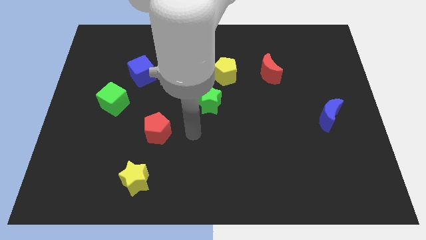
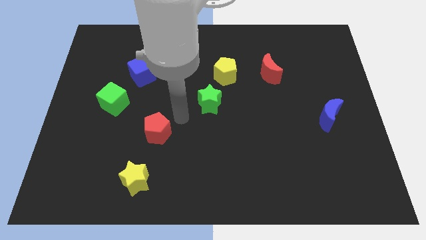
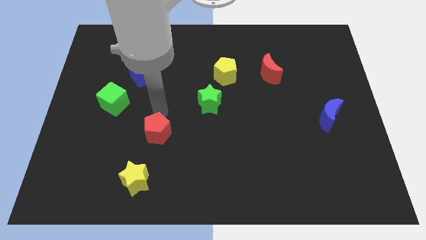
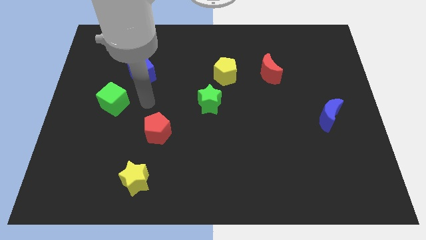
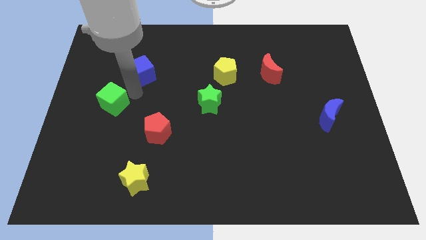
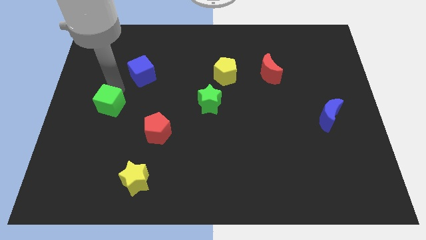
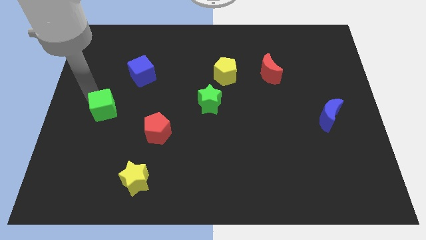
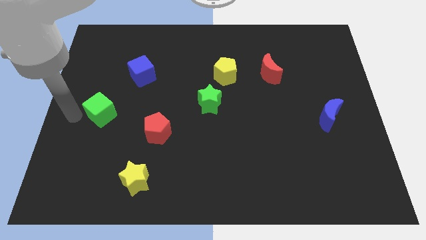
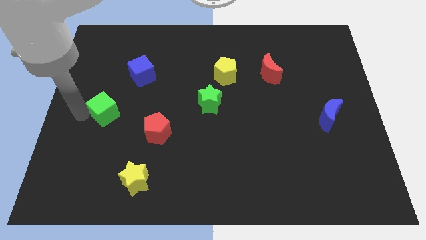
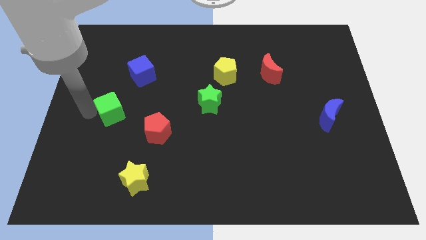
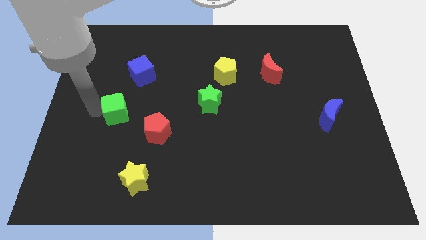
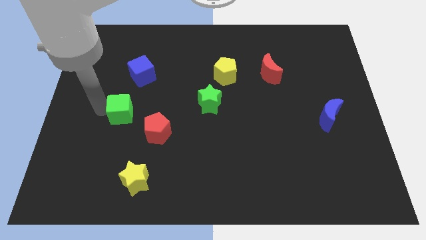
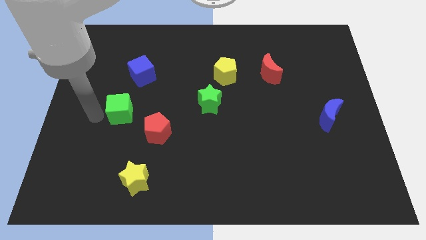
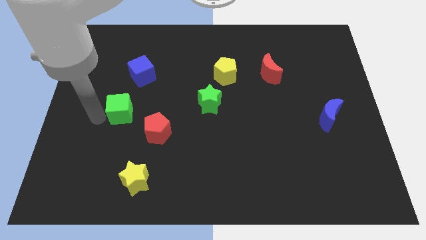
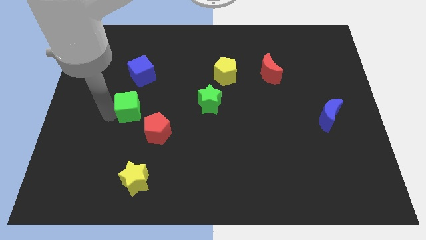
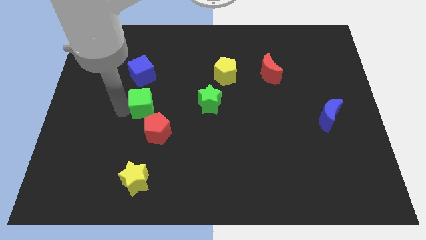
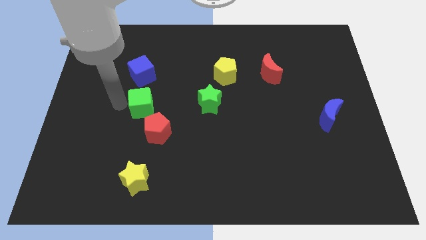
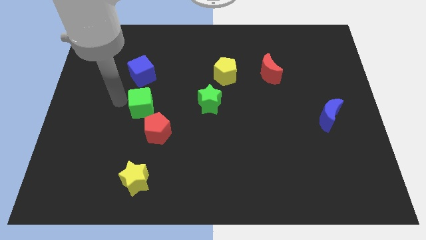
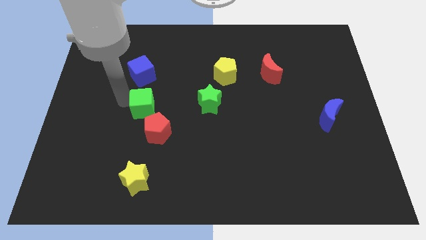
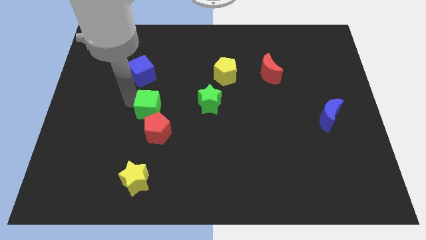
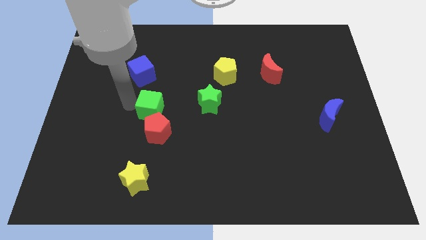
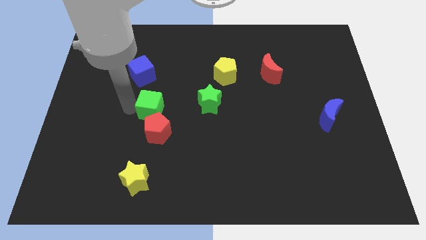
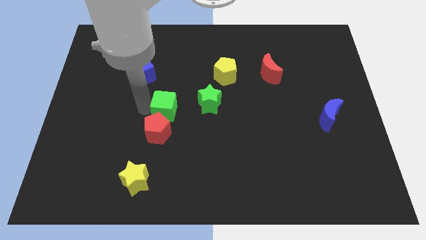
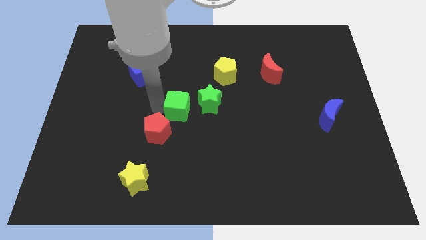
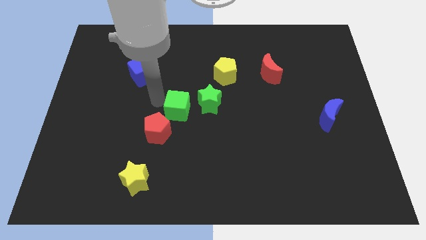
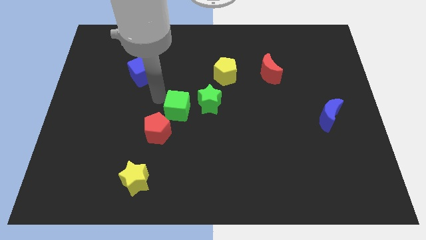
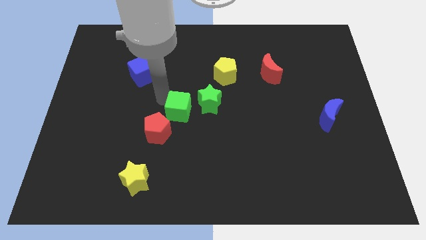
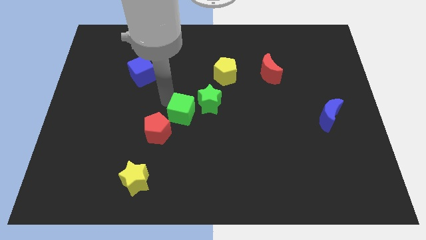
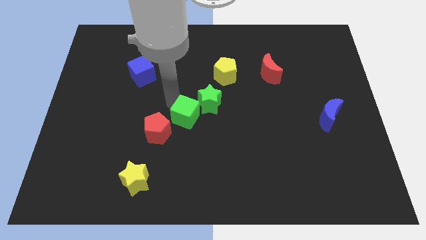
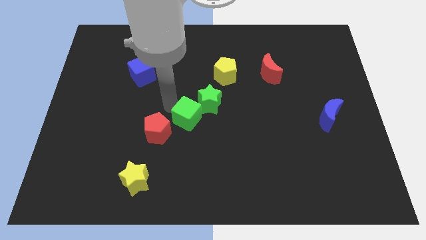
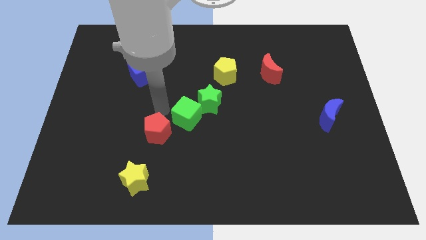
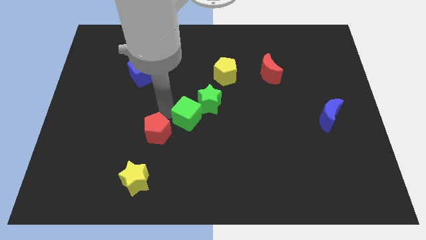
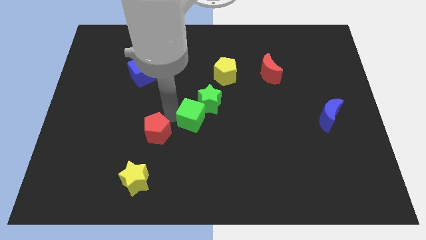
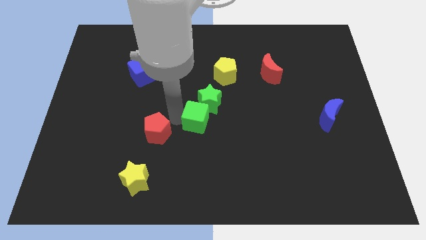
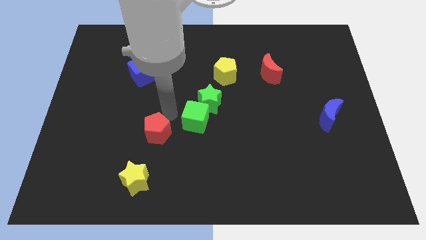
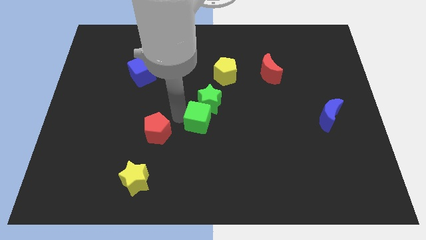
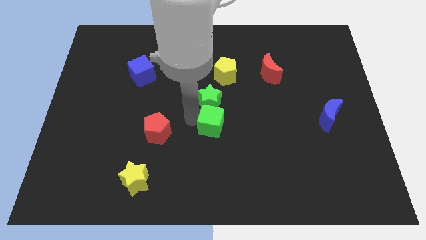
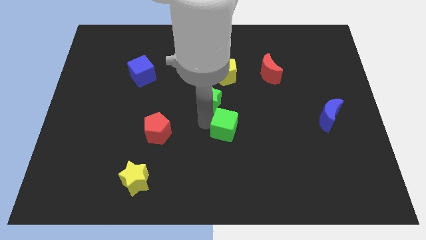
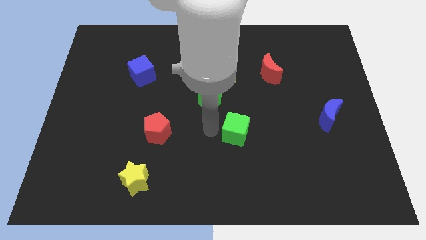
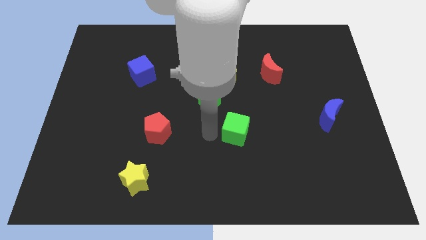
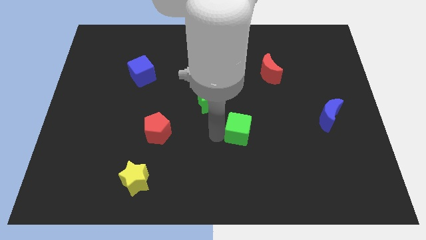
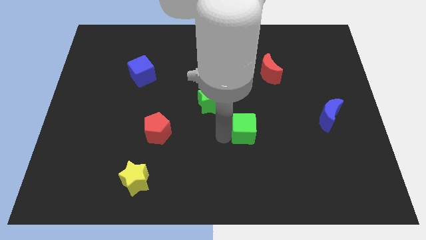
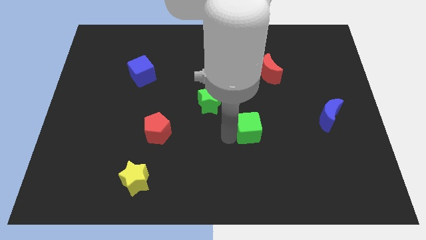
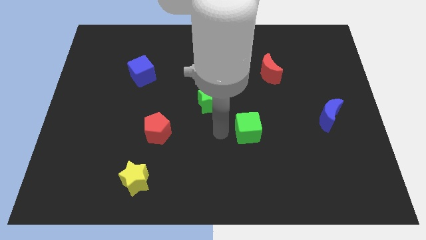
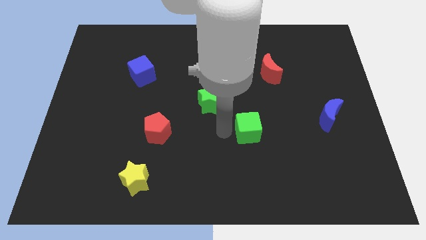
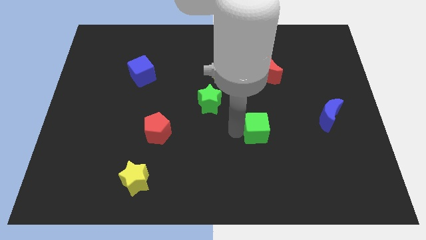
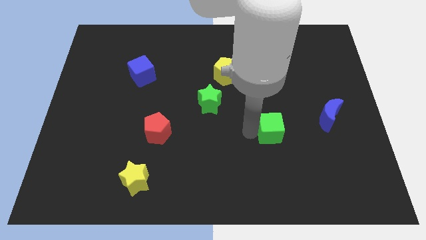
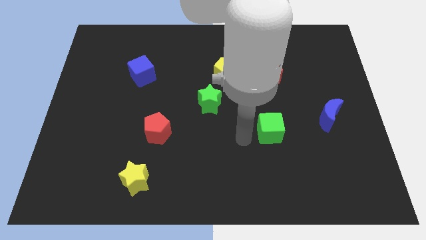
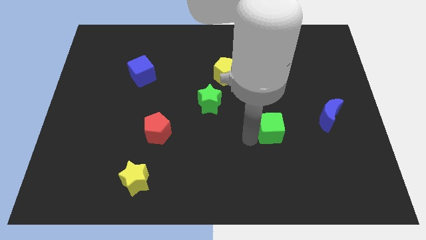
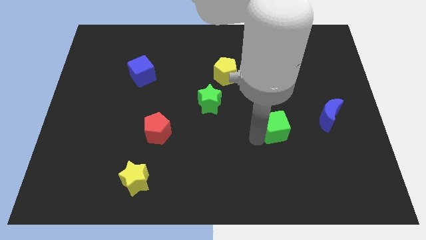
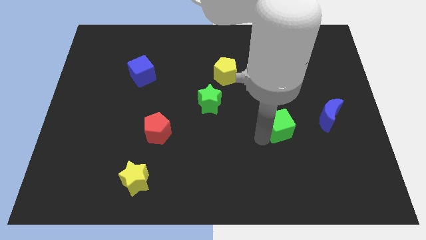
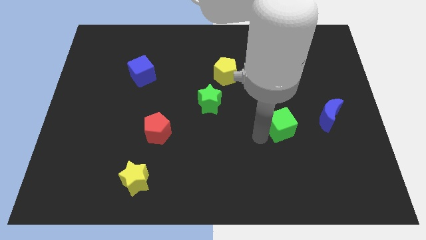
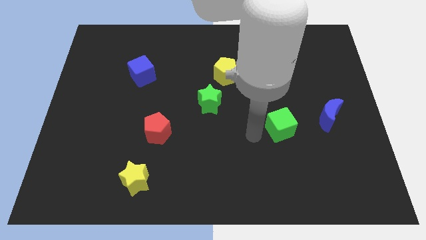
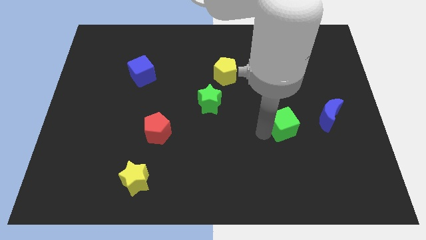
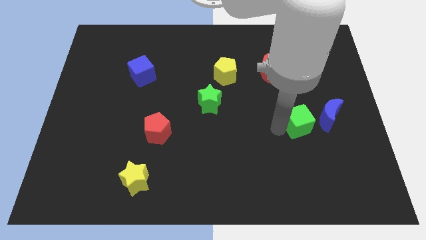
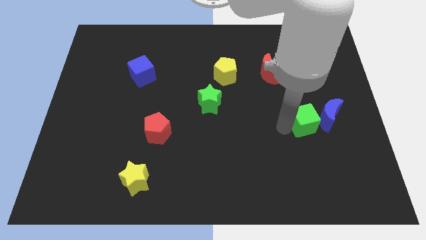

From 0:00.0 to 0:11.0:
put the green cube towards the blue moon

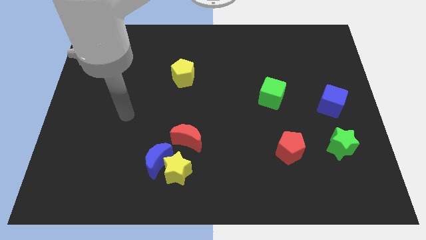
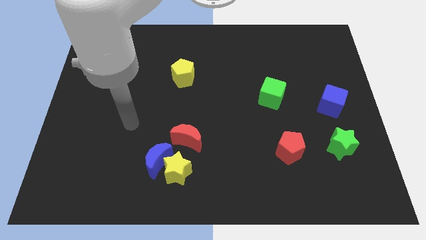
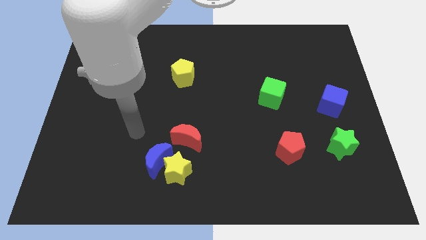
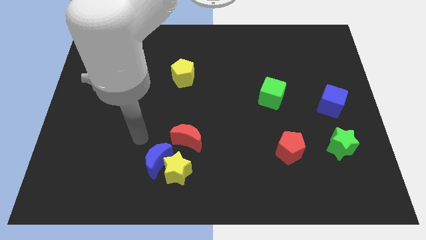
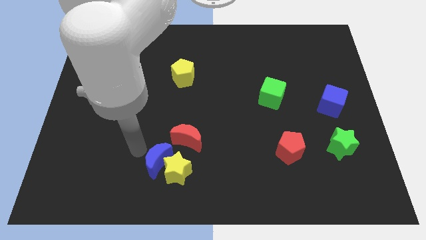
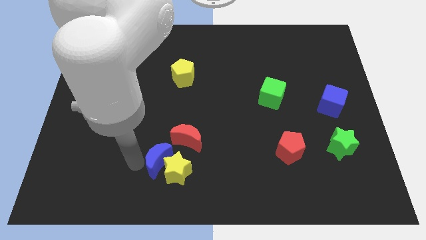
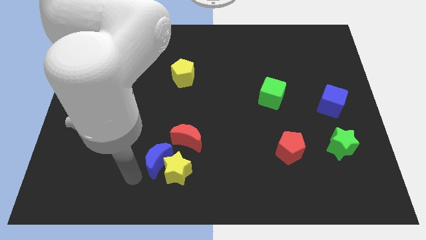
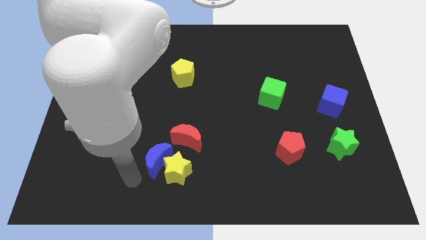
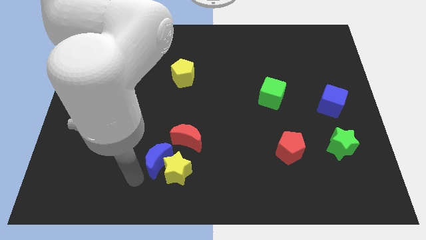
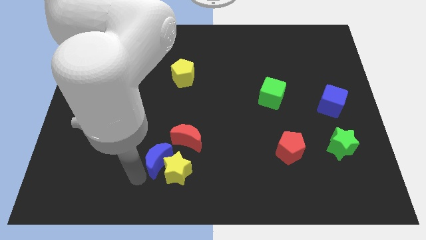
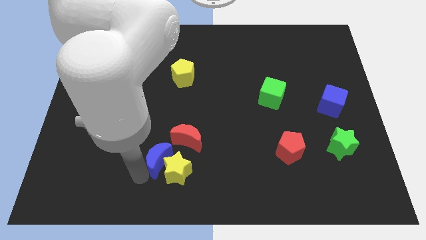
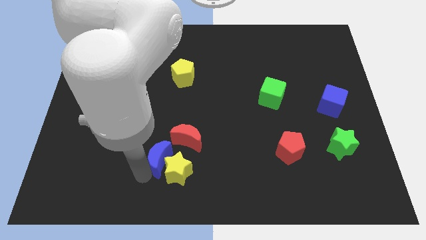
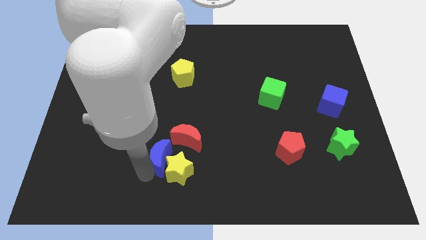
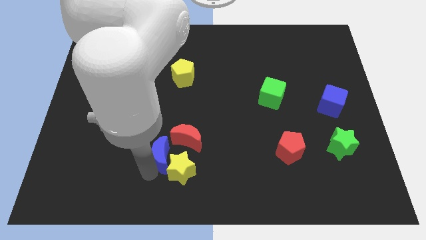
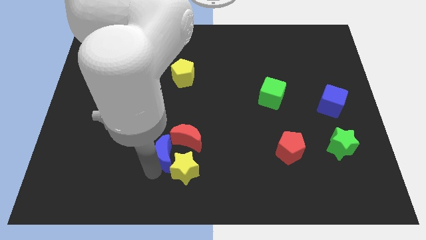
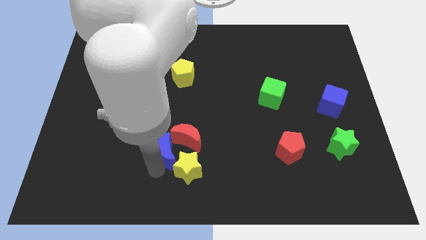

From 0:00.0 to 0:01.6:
move the blue moon to the red moon
